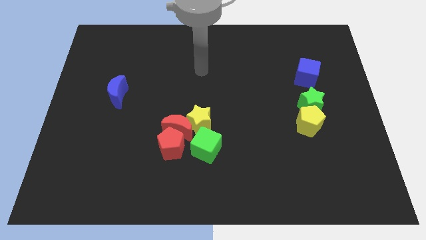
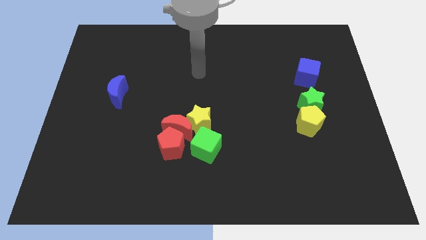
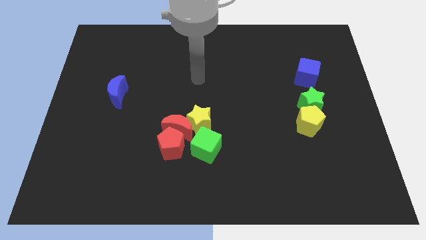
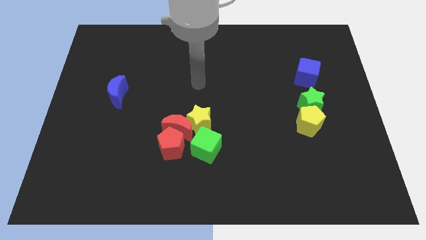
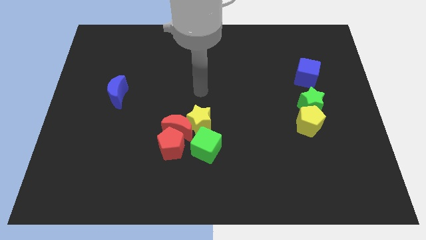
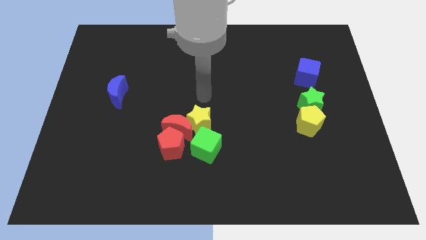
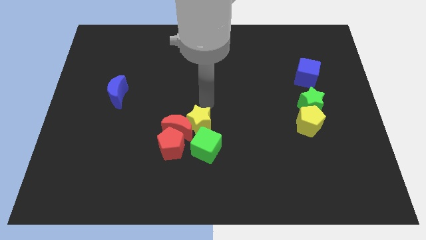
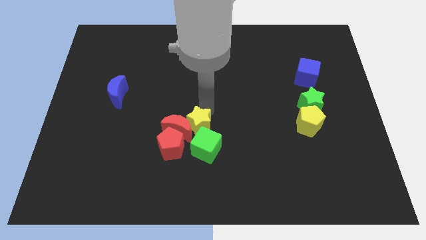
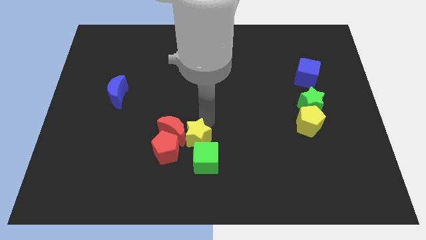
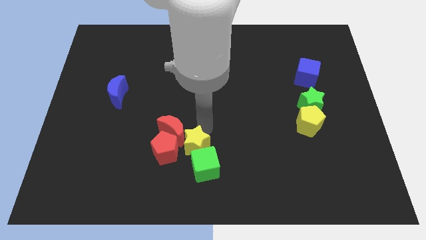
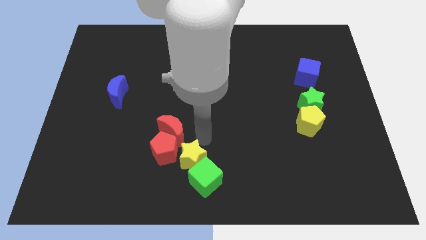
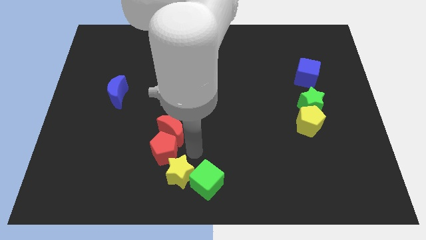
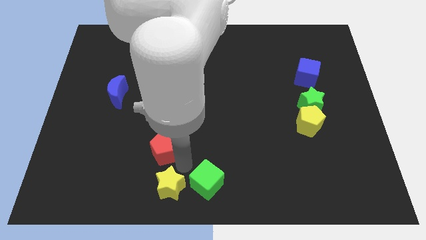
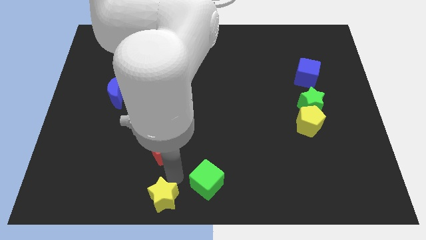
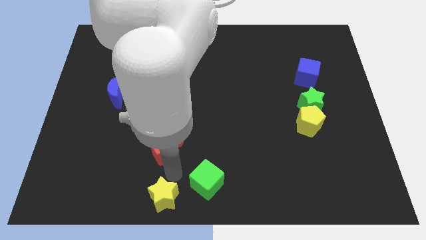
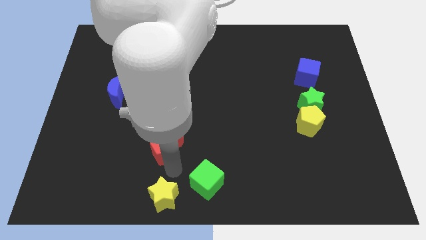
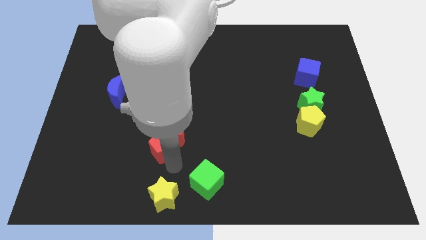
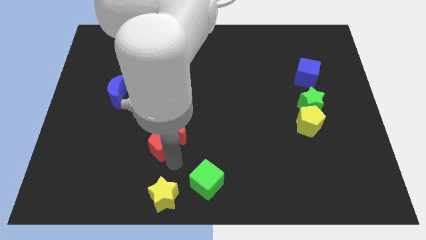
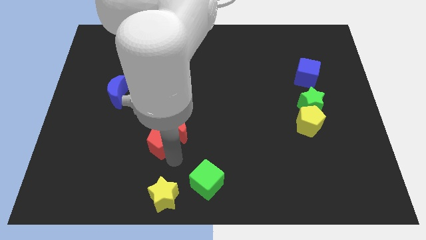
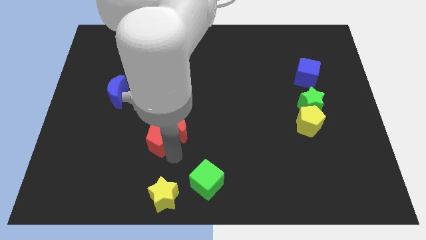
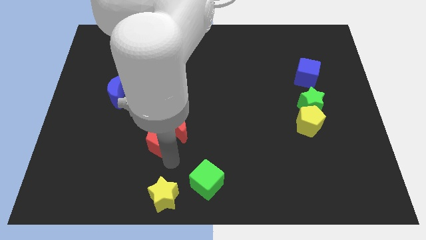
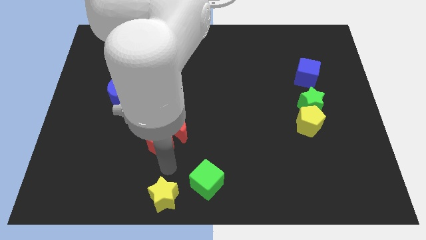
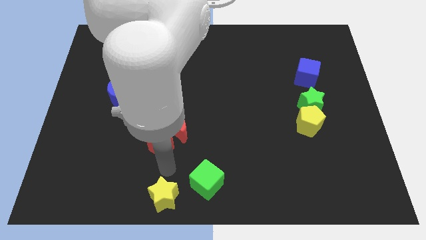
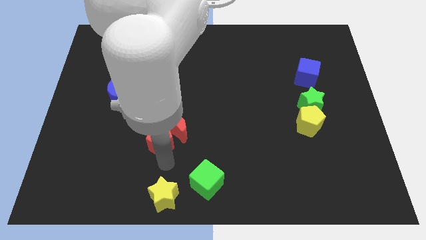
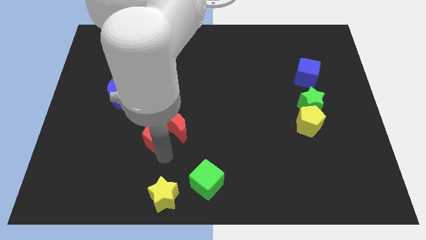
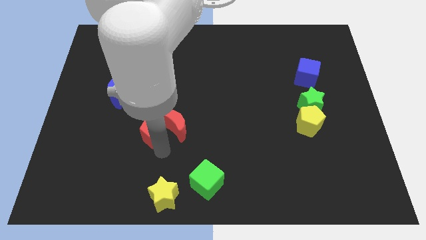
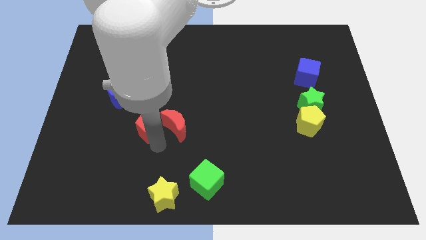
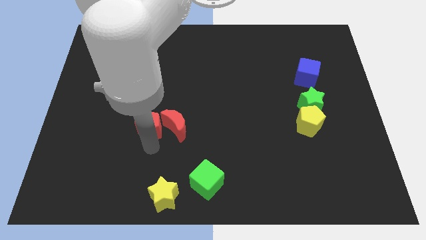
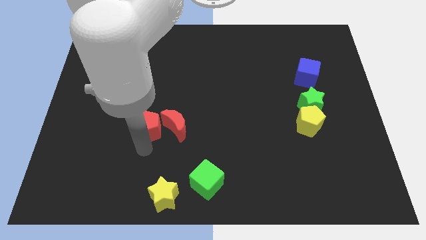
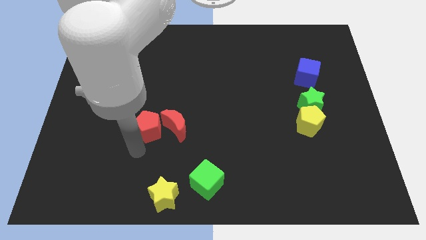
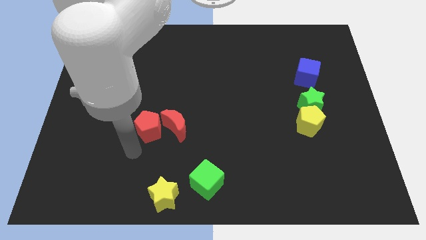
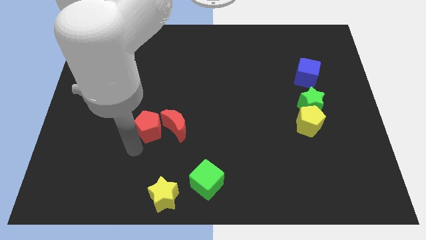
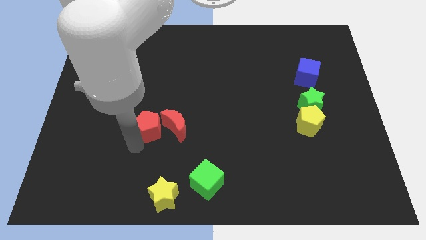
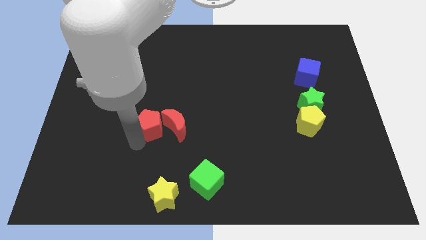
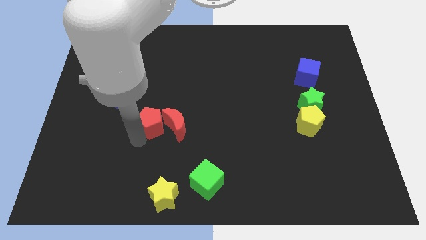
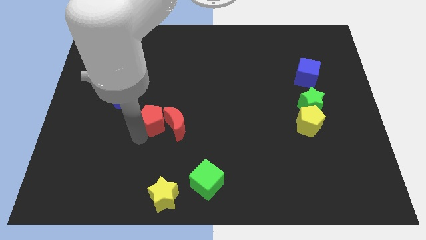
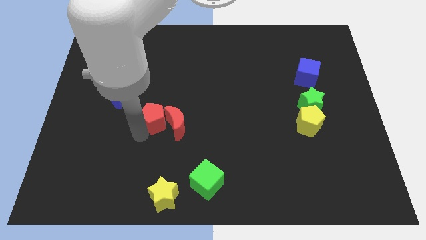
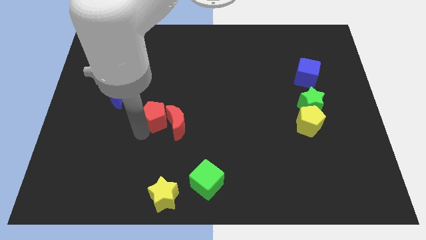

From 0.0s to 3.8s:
move the red pentagon a little bit up

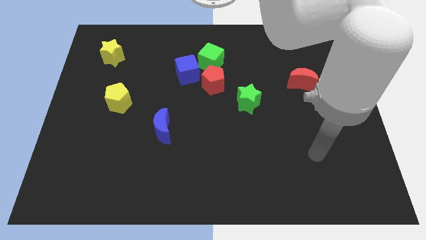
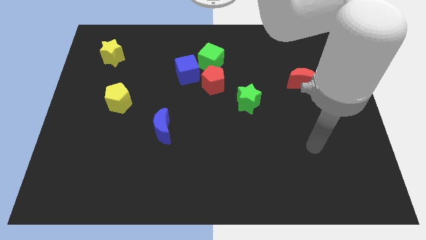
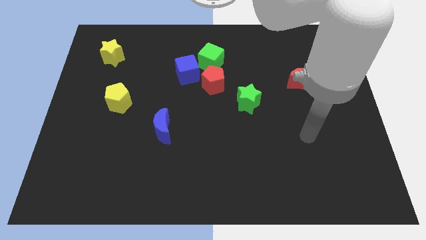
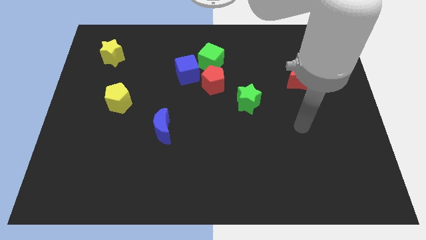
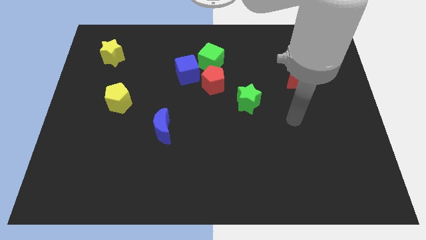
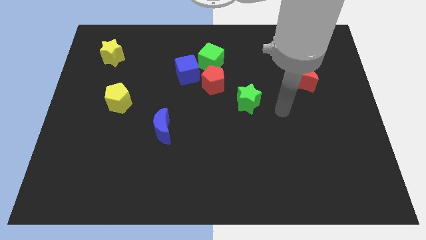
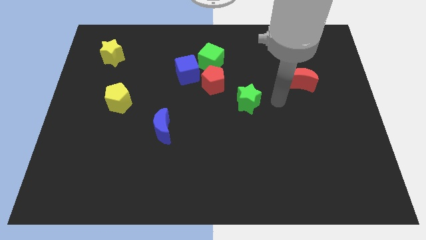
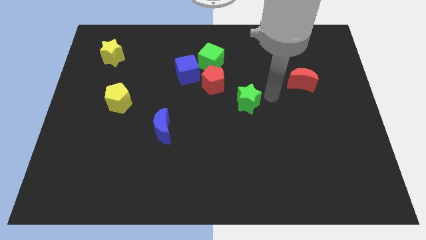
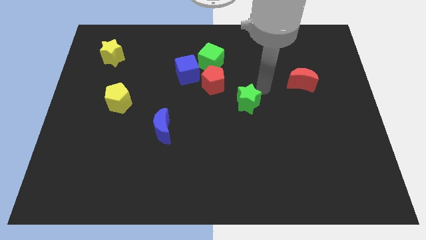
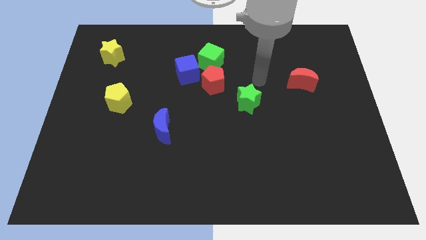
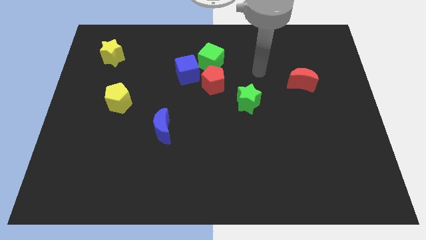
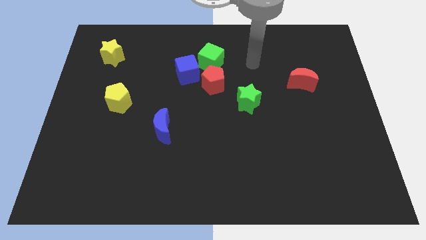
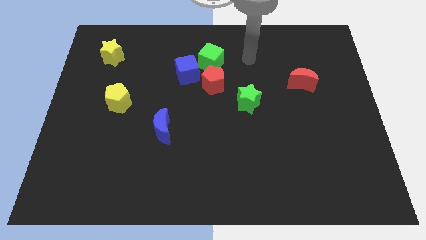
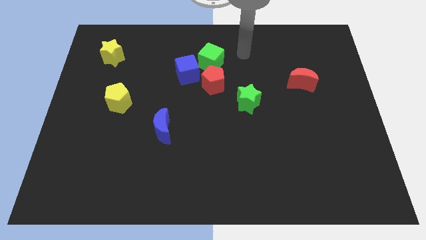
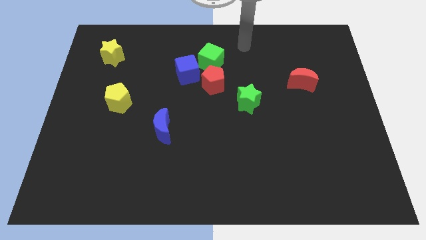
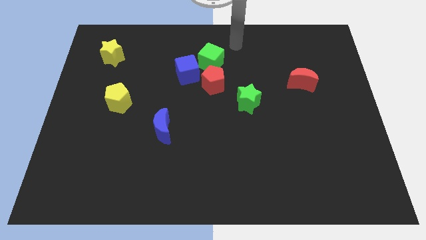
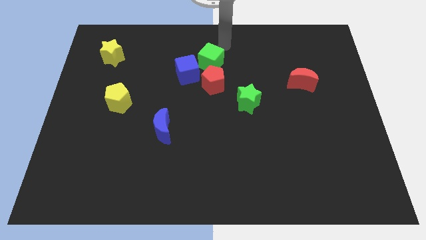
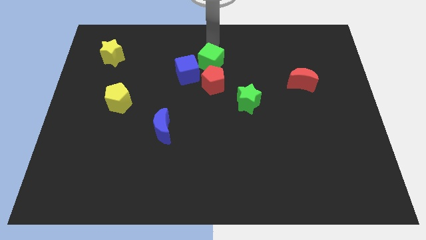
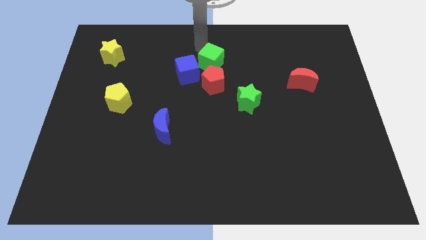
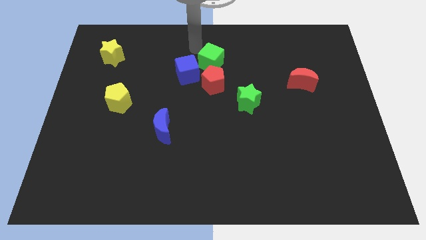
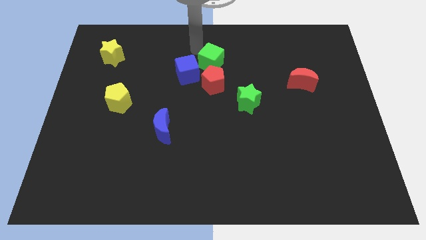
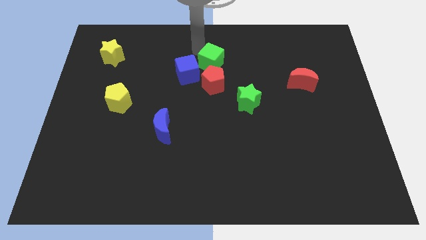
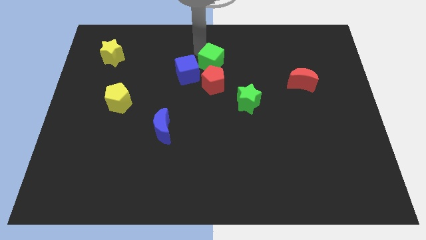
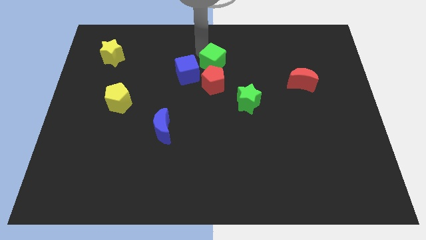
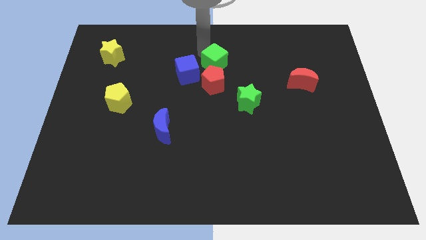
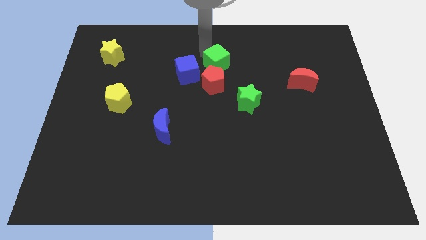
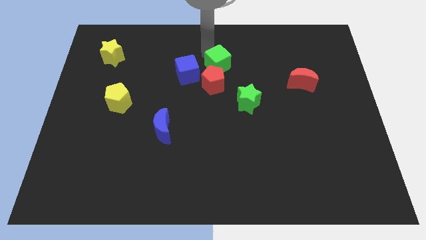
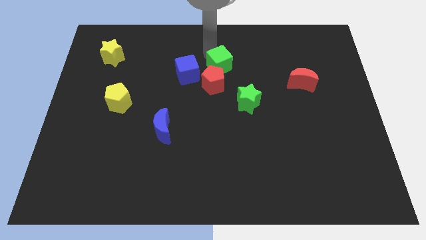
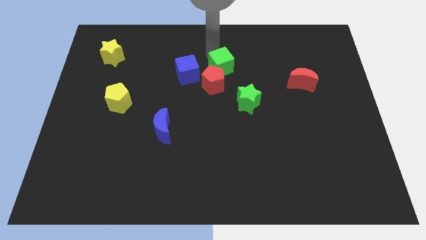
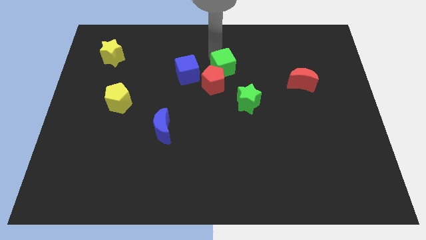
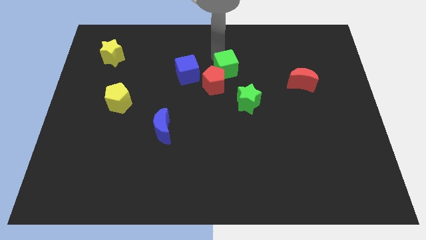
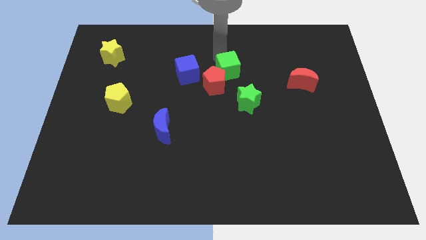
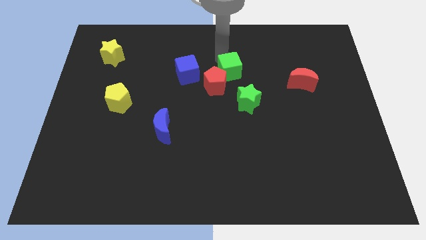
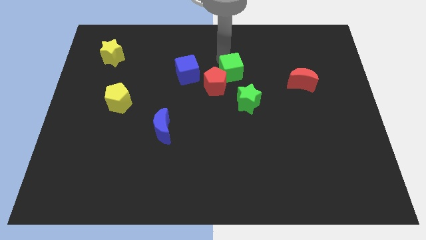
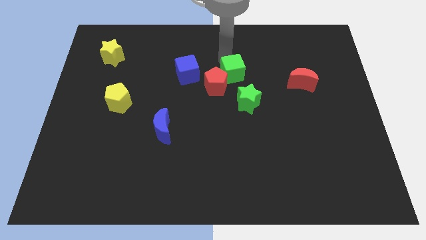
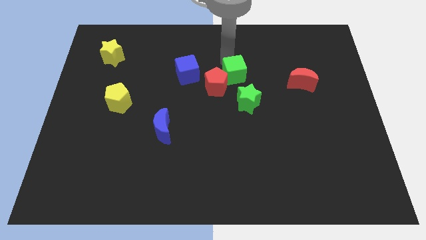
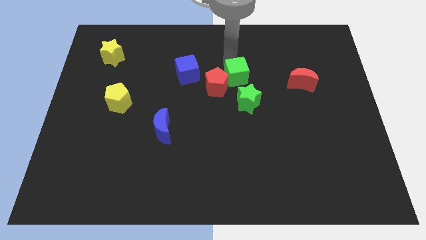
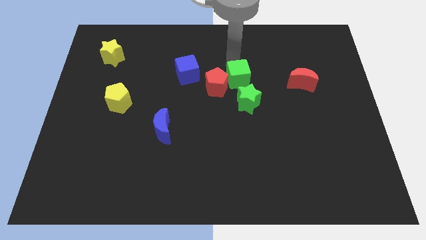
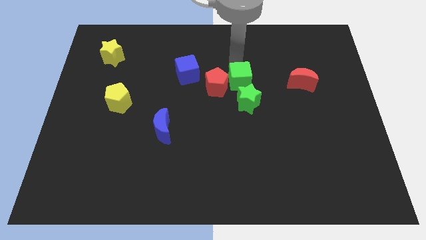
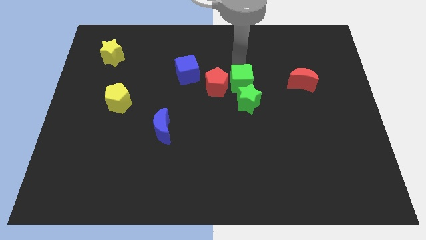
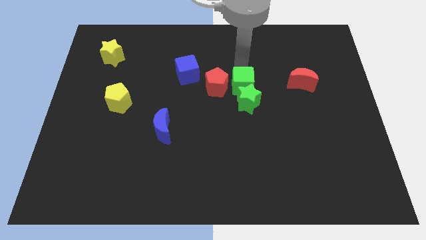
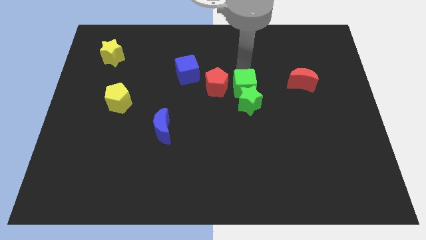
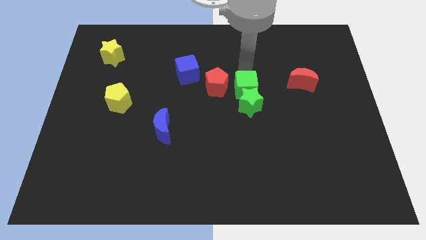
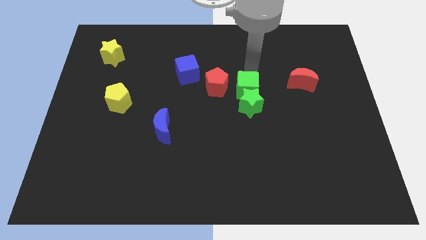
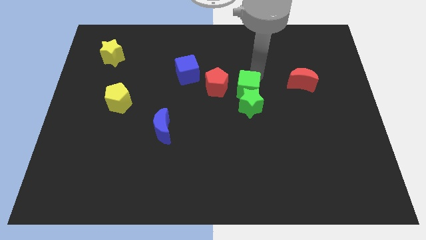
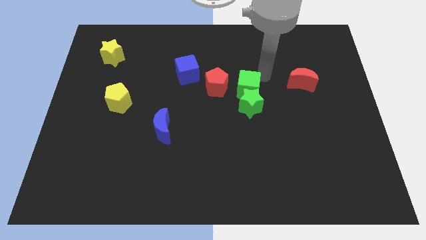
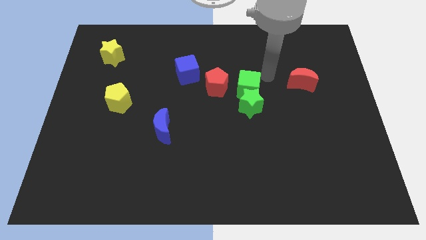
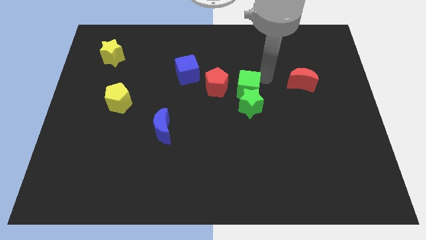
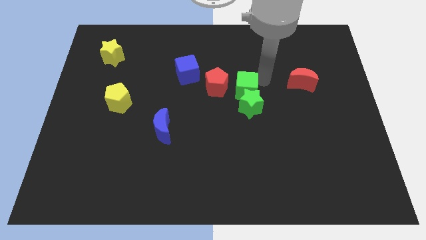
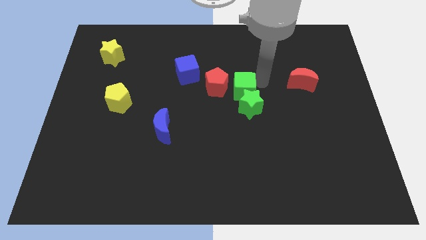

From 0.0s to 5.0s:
slightly push the green cube downwards
